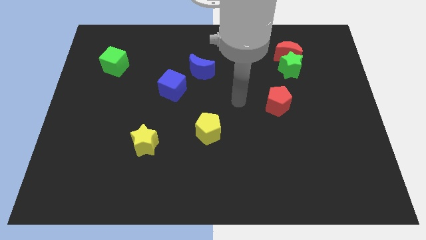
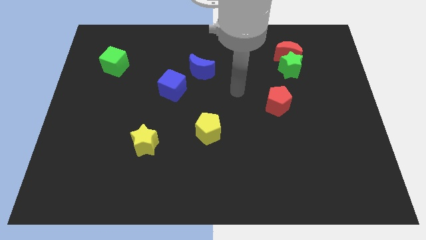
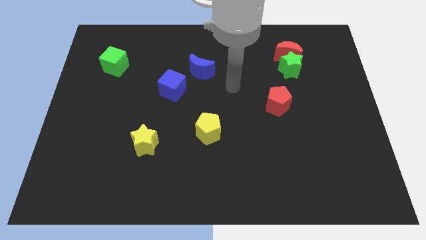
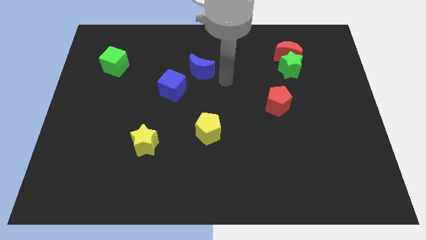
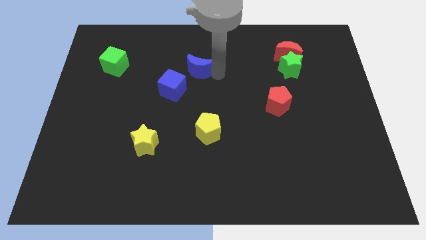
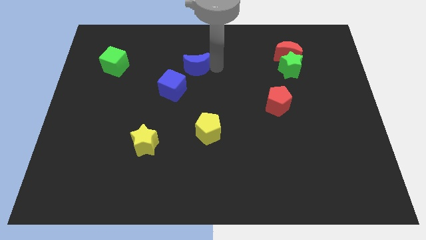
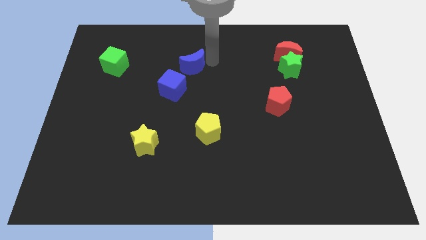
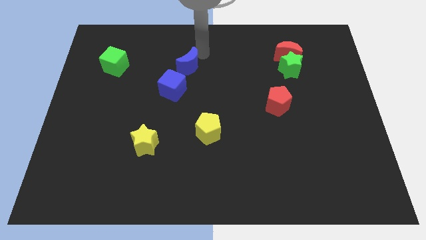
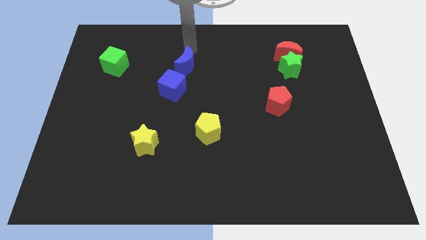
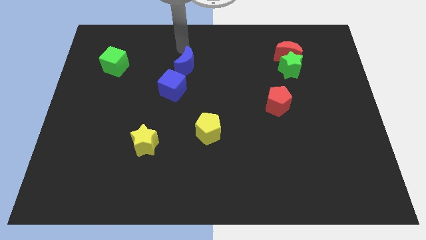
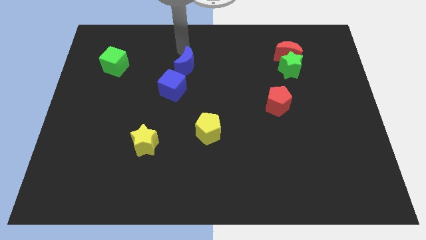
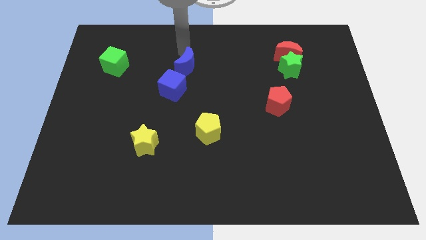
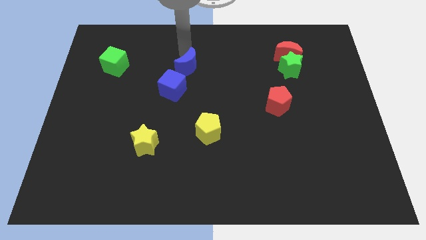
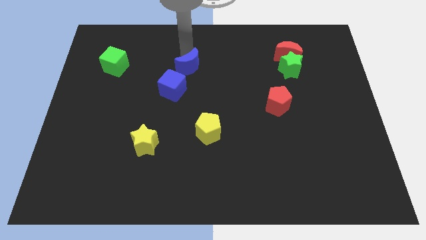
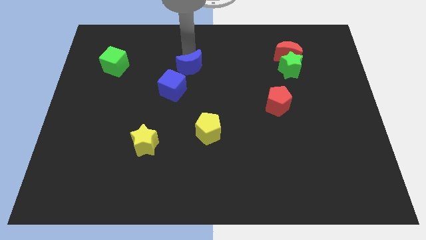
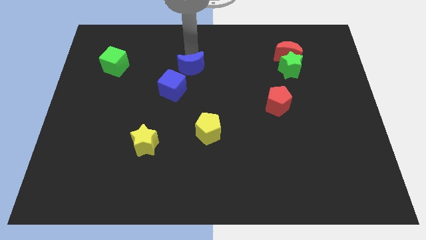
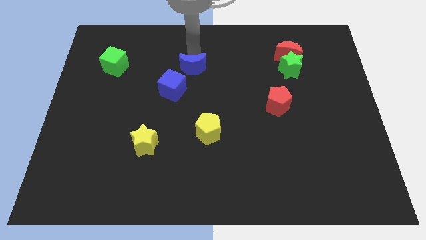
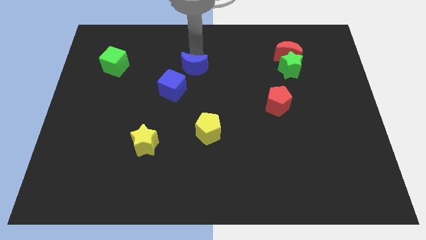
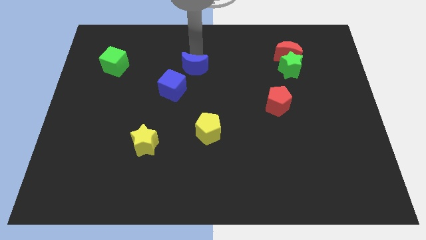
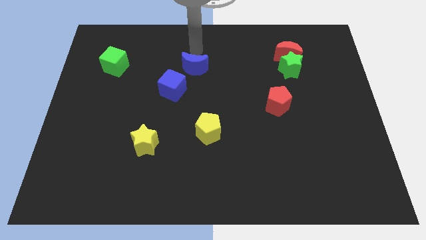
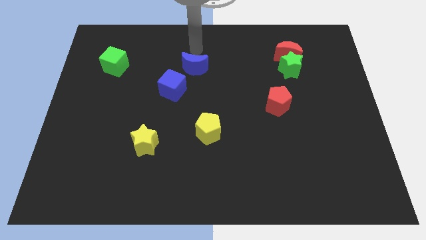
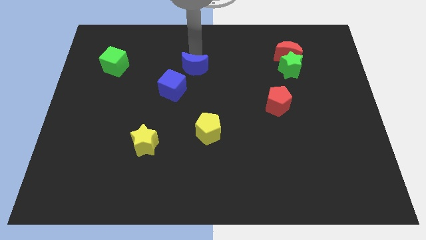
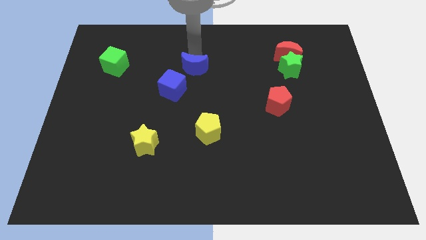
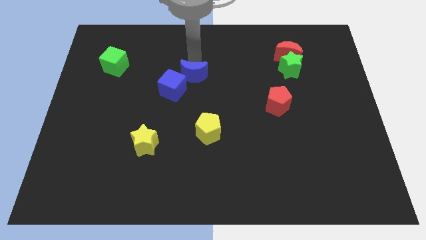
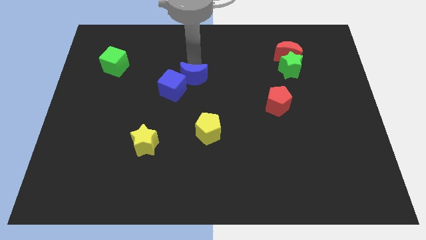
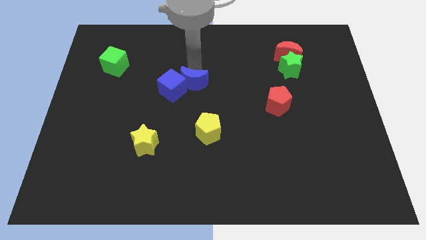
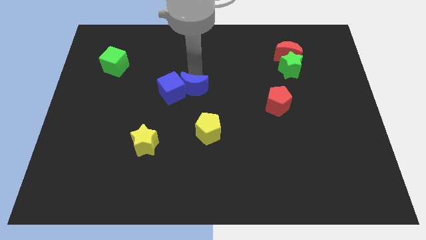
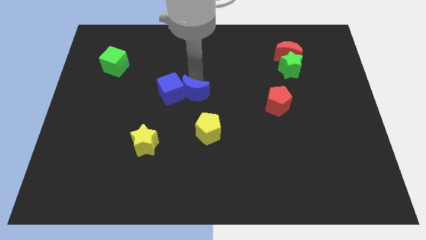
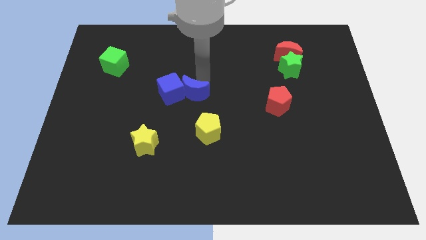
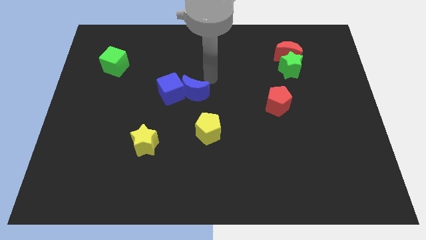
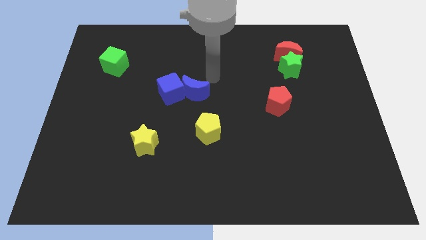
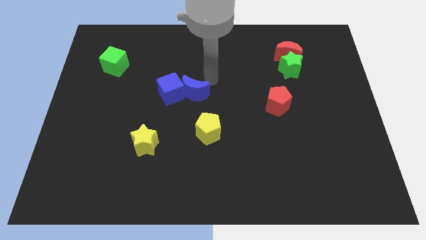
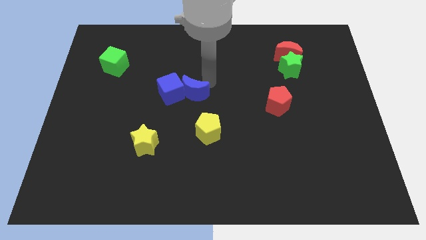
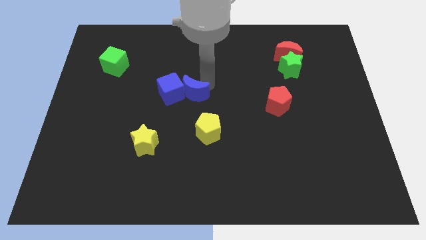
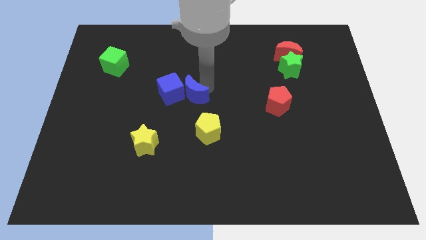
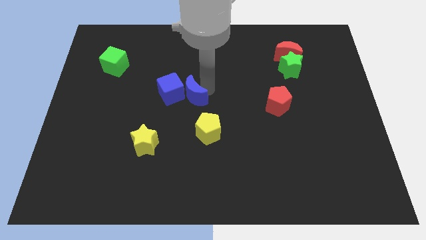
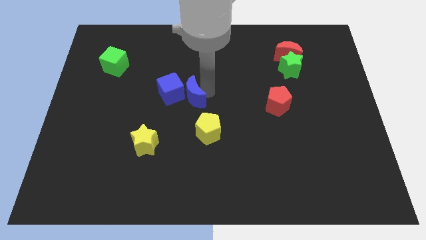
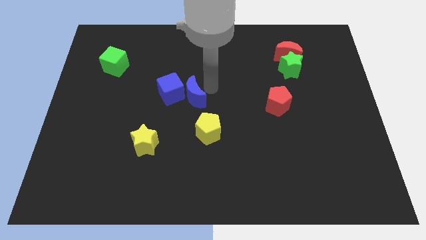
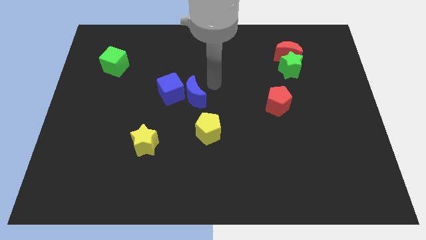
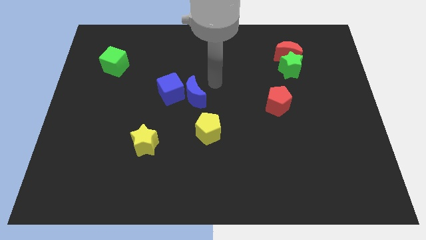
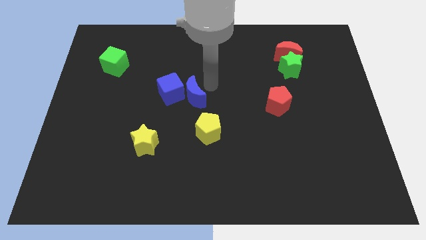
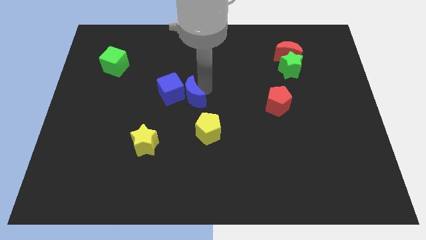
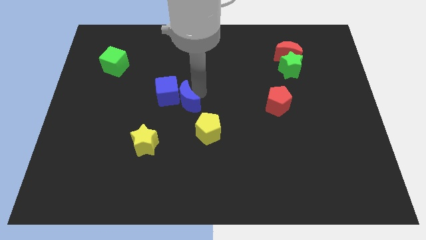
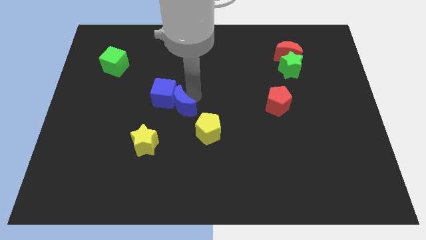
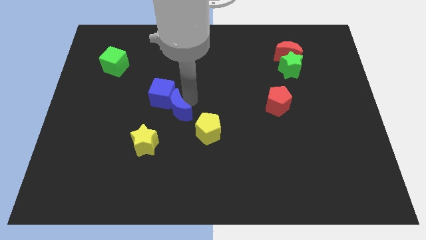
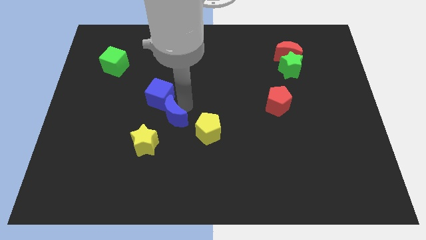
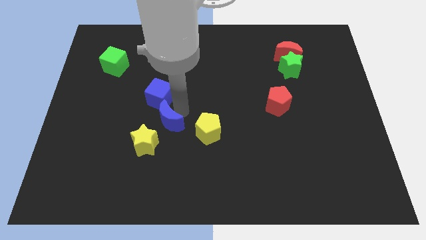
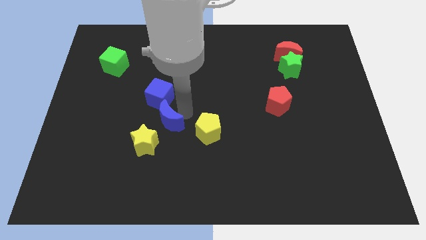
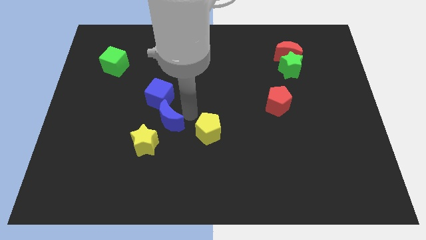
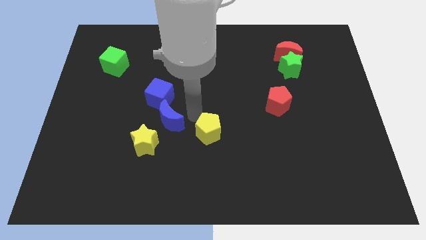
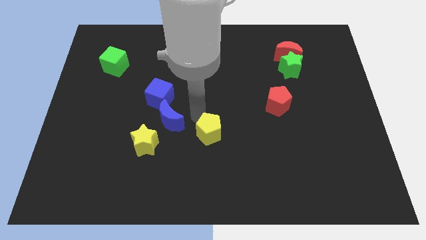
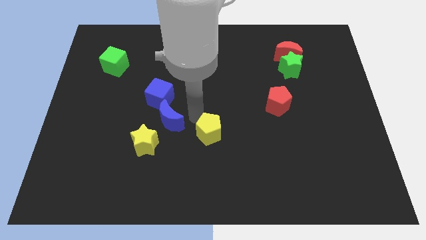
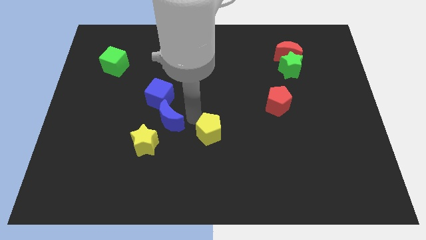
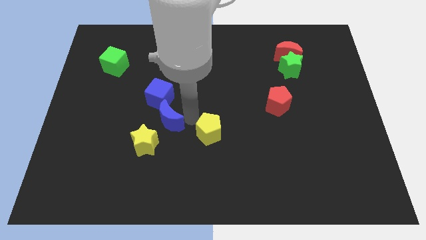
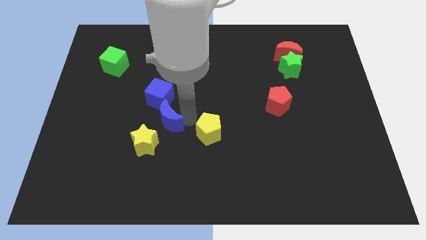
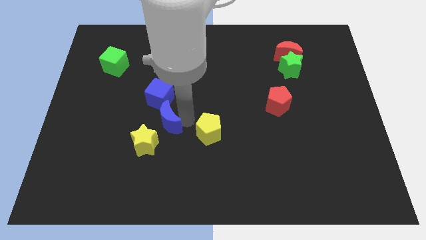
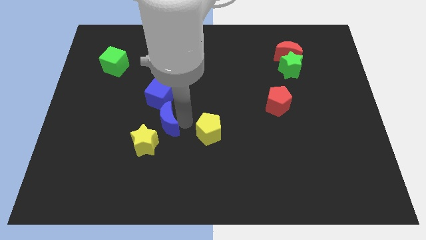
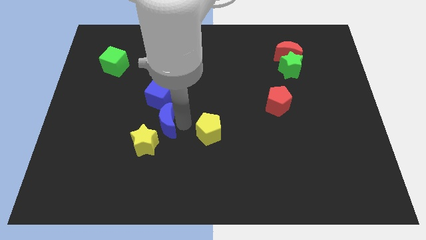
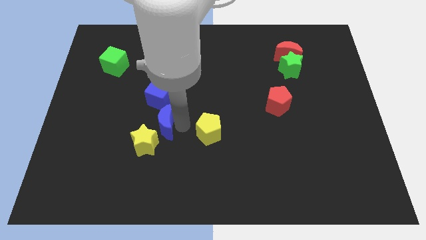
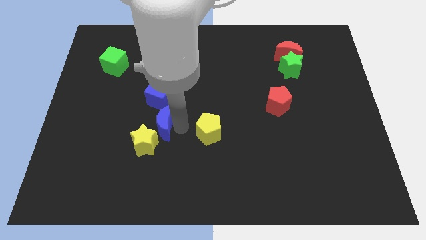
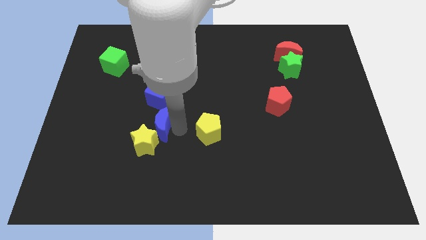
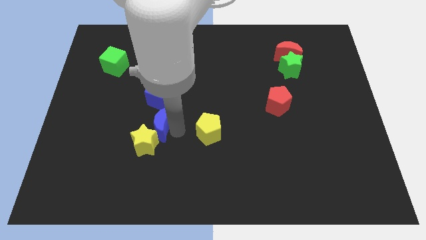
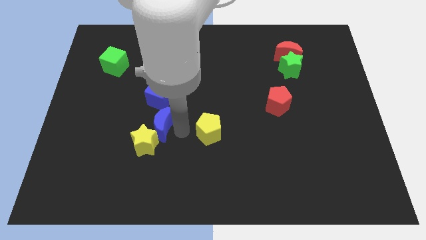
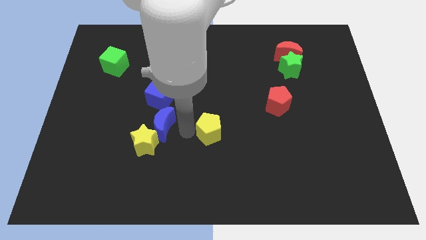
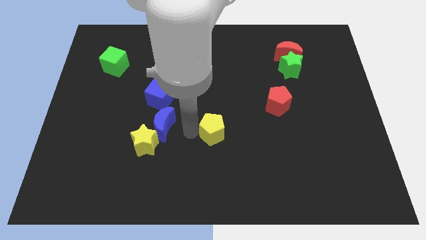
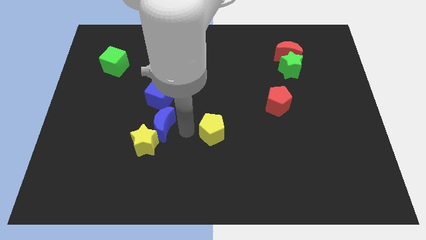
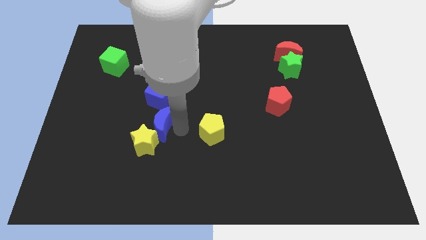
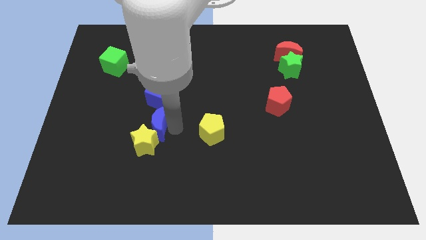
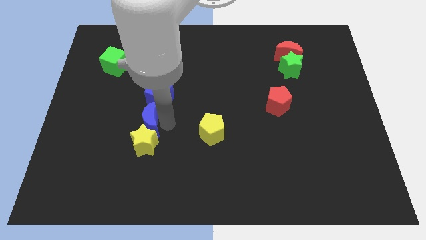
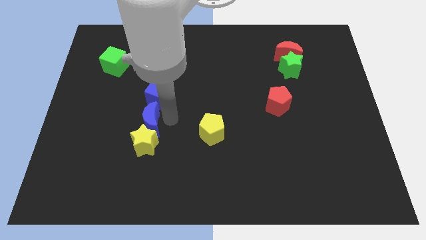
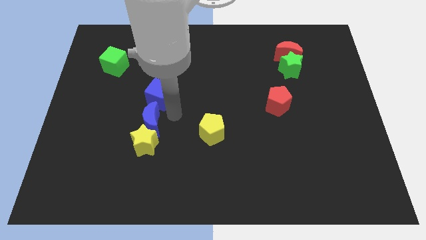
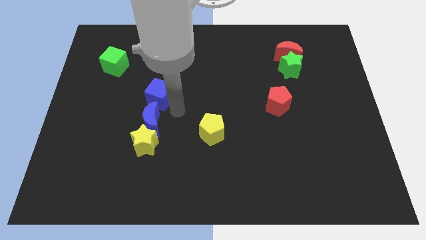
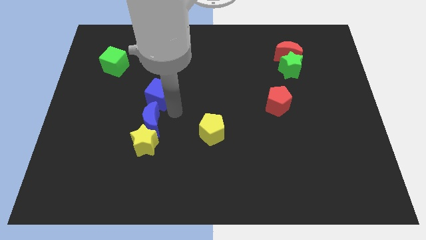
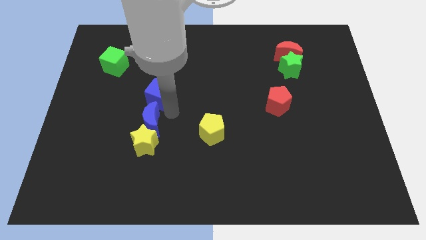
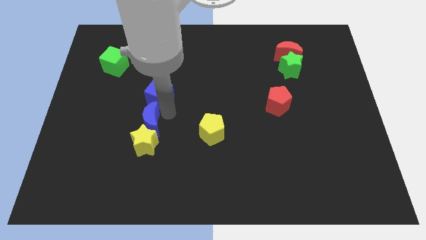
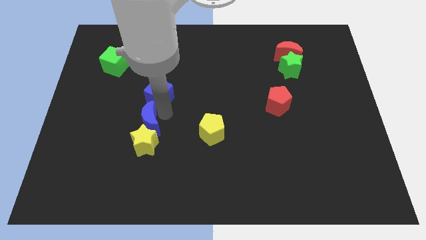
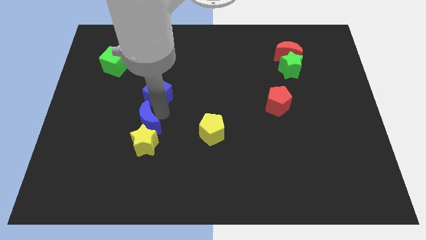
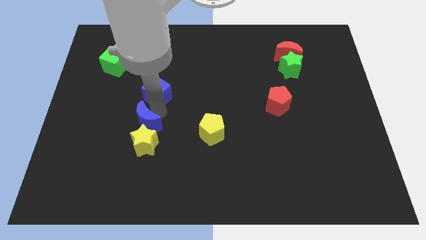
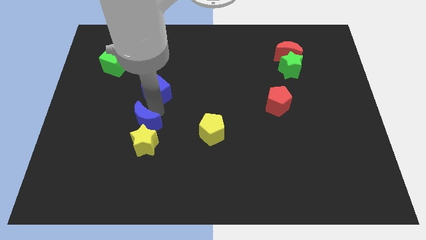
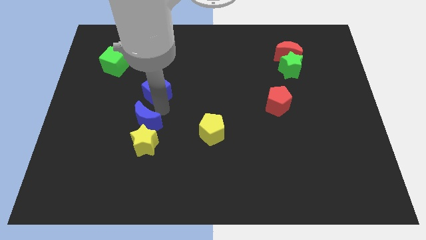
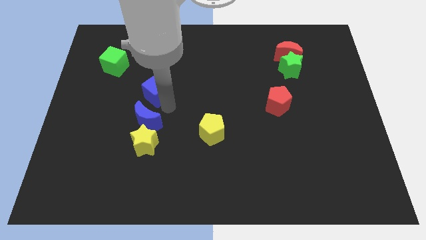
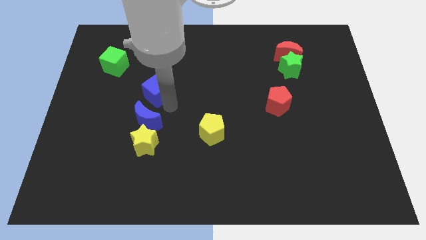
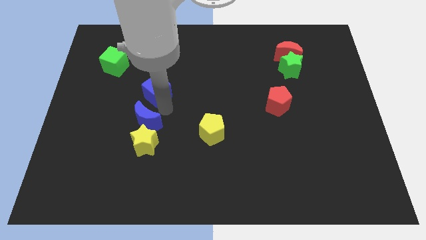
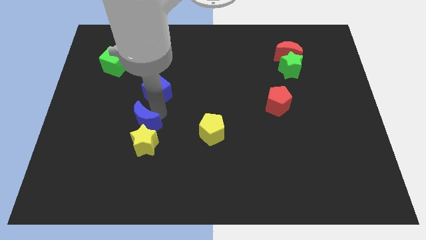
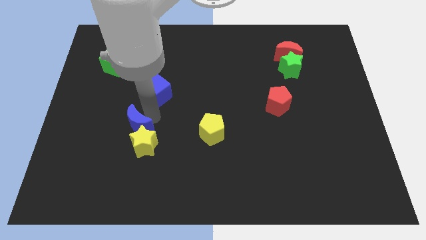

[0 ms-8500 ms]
push the blue moon downwards and to the left
